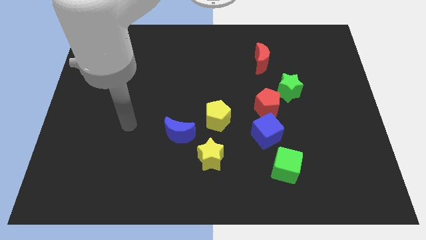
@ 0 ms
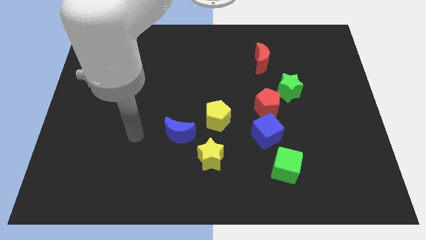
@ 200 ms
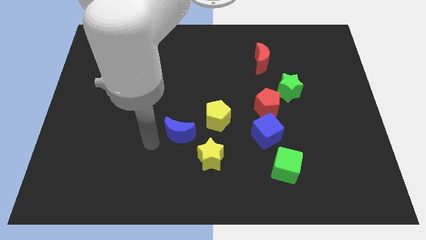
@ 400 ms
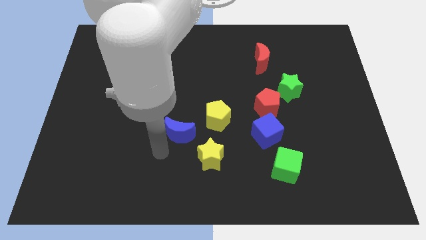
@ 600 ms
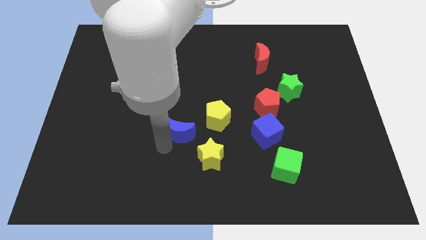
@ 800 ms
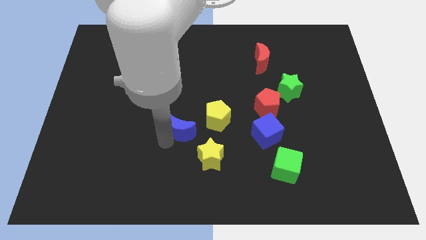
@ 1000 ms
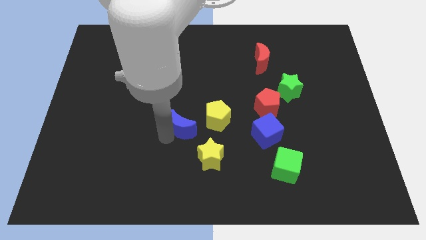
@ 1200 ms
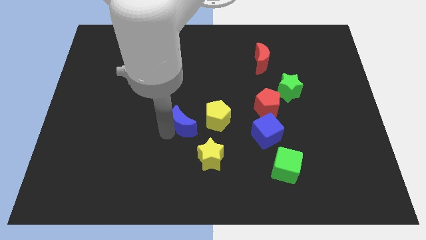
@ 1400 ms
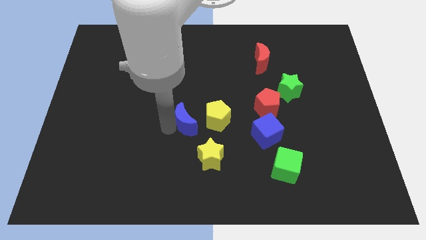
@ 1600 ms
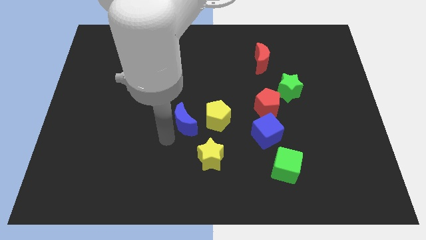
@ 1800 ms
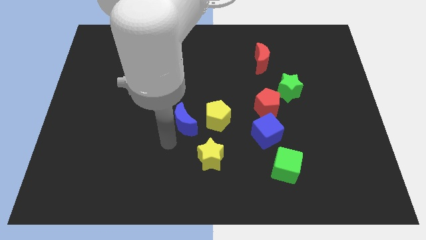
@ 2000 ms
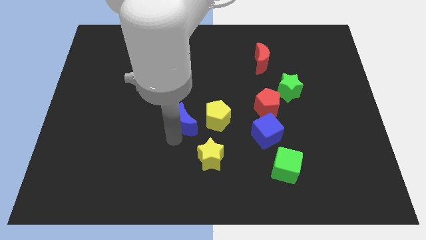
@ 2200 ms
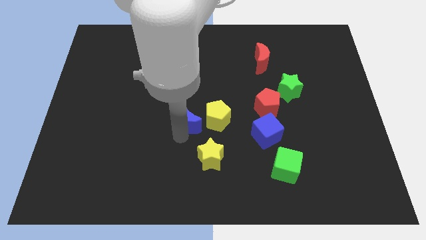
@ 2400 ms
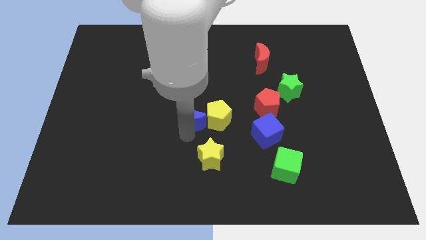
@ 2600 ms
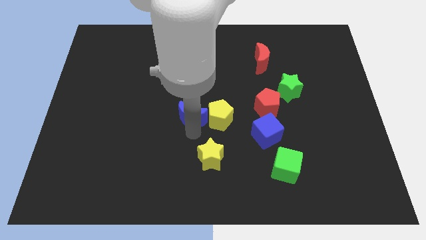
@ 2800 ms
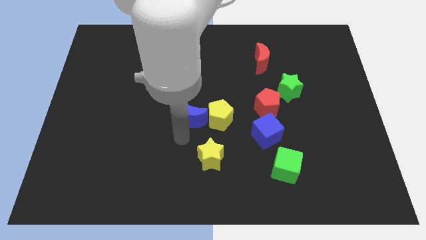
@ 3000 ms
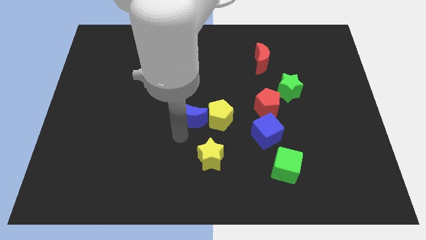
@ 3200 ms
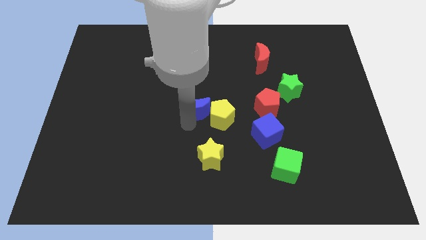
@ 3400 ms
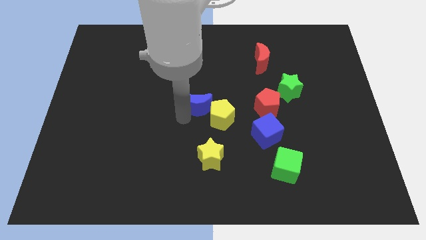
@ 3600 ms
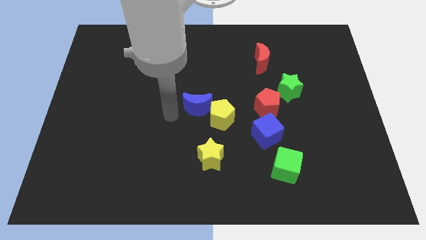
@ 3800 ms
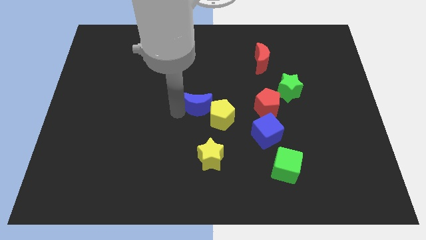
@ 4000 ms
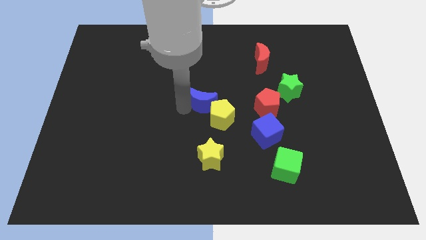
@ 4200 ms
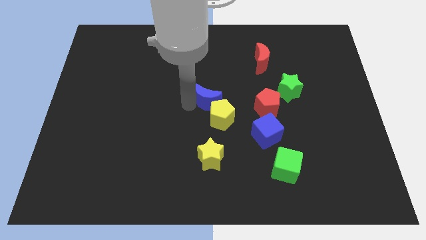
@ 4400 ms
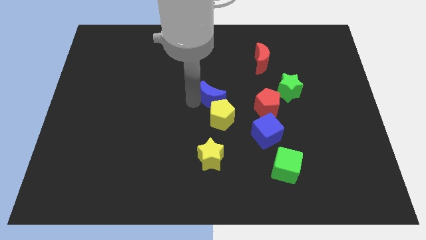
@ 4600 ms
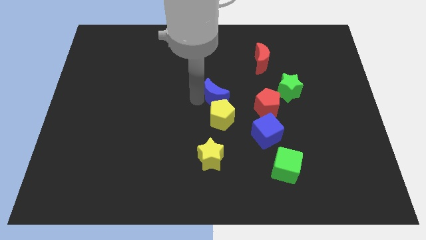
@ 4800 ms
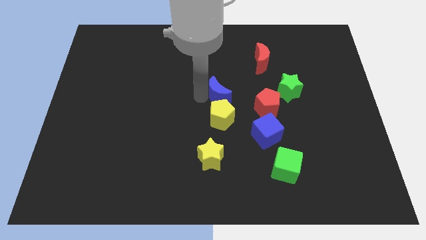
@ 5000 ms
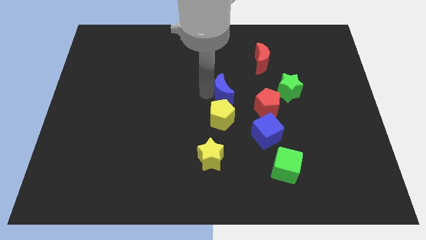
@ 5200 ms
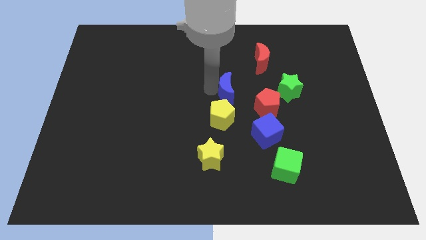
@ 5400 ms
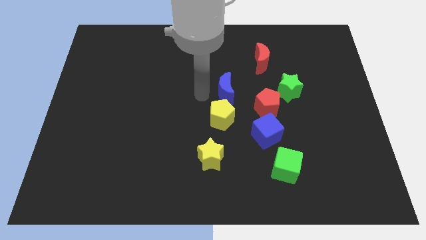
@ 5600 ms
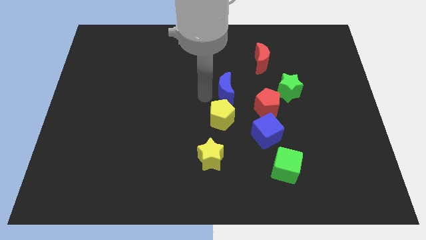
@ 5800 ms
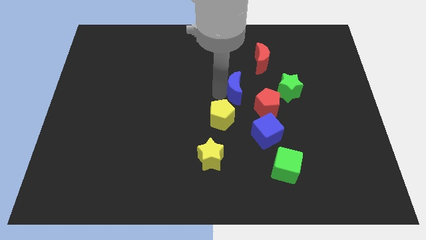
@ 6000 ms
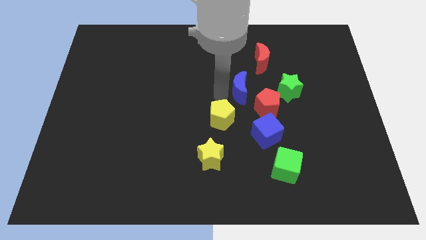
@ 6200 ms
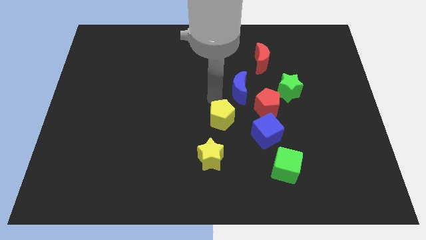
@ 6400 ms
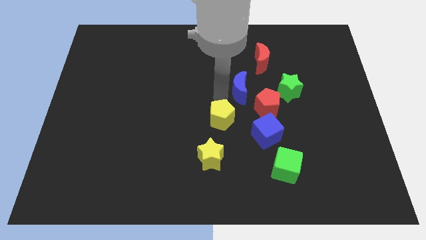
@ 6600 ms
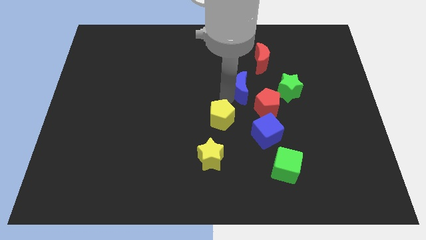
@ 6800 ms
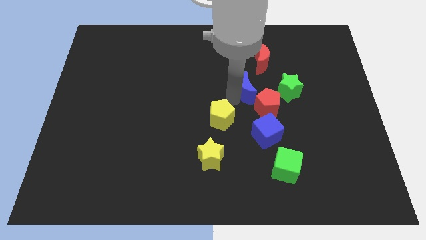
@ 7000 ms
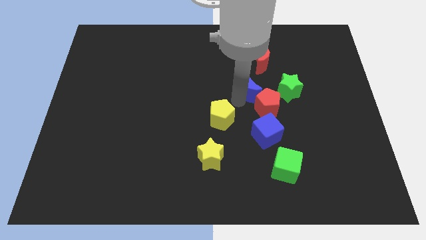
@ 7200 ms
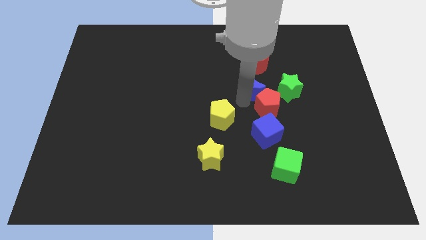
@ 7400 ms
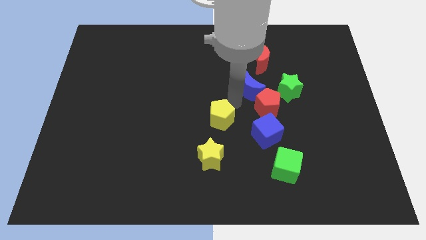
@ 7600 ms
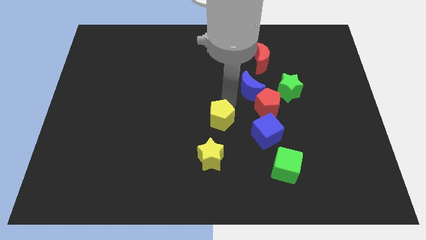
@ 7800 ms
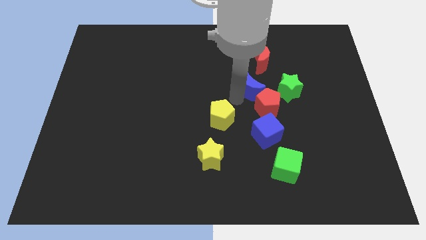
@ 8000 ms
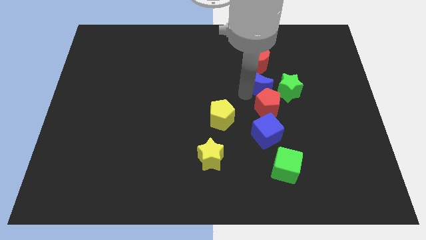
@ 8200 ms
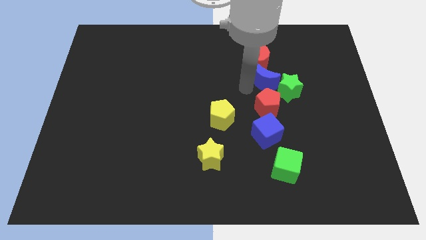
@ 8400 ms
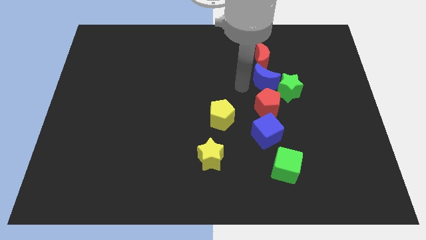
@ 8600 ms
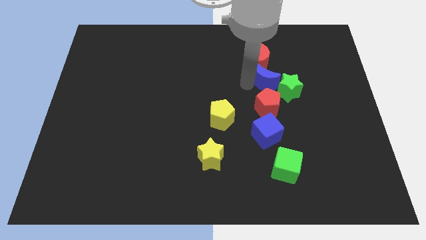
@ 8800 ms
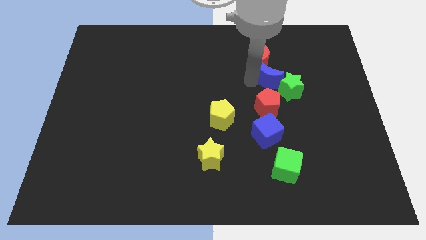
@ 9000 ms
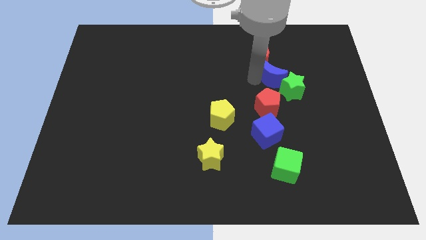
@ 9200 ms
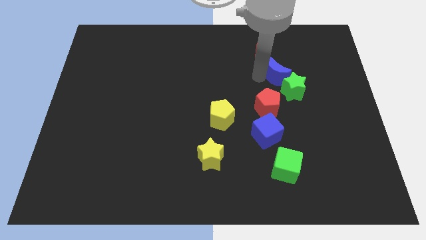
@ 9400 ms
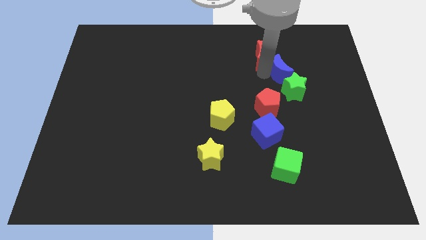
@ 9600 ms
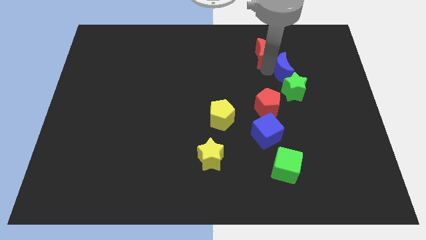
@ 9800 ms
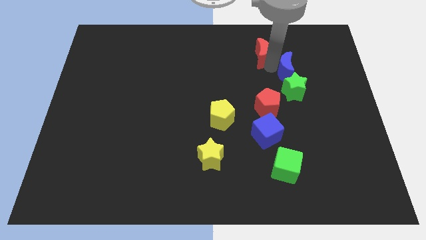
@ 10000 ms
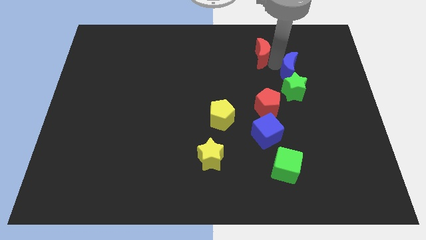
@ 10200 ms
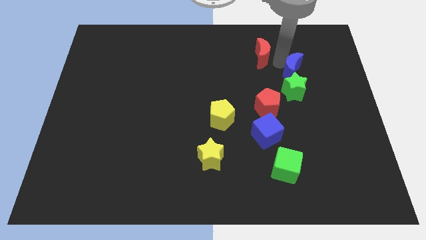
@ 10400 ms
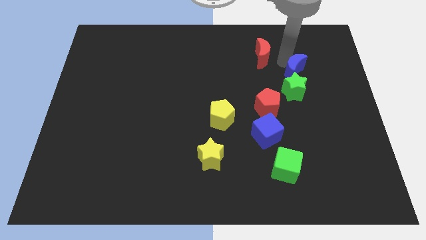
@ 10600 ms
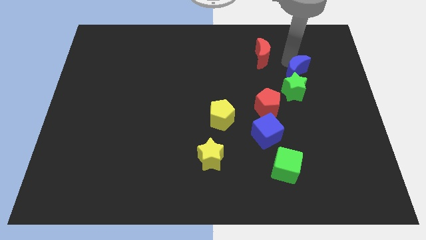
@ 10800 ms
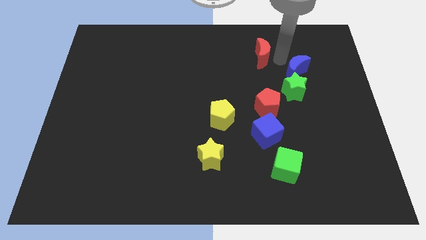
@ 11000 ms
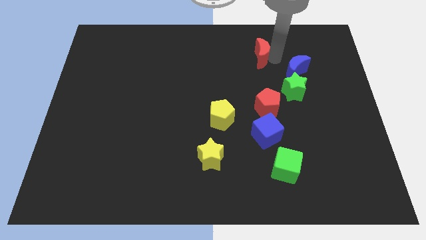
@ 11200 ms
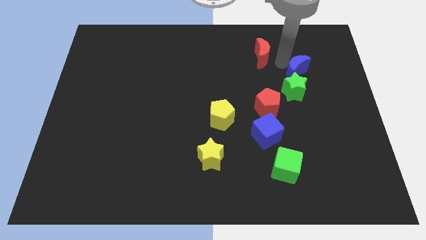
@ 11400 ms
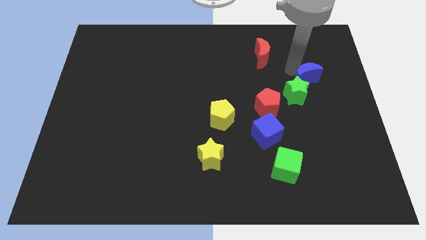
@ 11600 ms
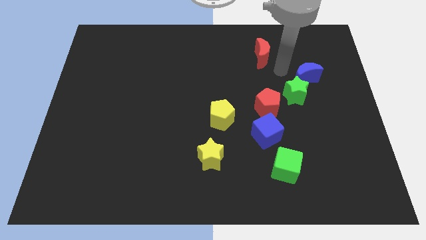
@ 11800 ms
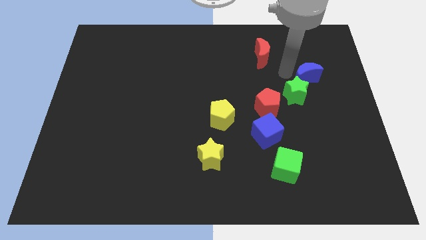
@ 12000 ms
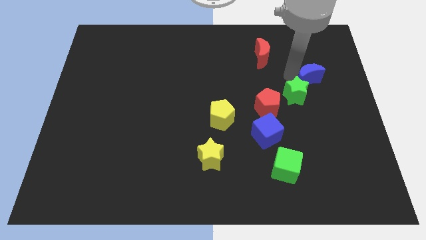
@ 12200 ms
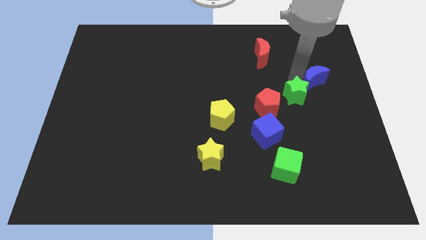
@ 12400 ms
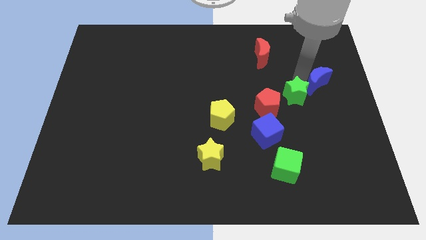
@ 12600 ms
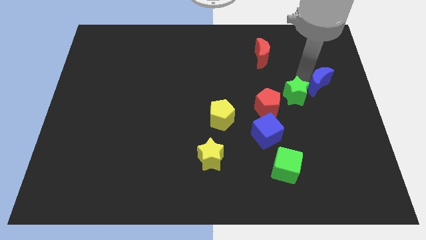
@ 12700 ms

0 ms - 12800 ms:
slide the blue moon to the right side of the board
